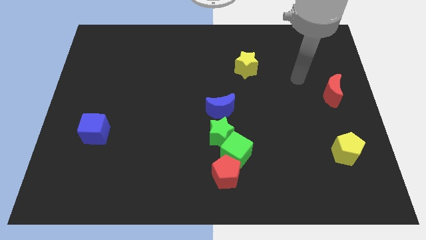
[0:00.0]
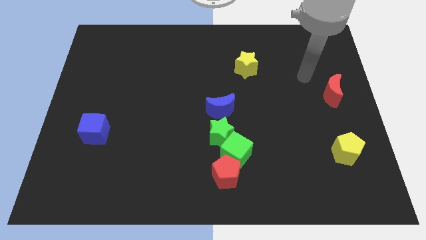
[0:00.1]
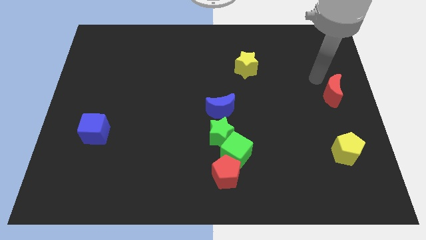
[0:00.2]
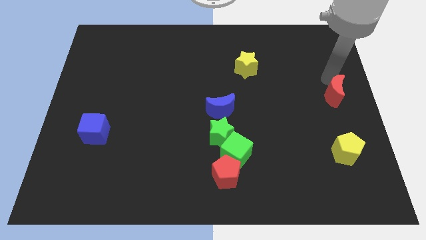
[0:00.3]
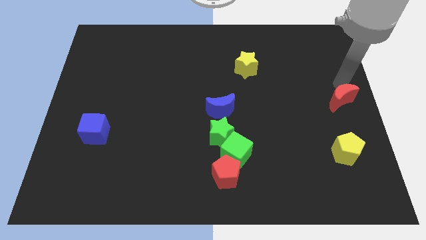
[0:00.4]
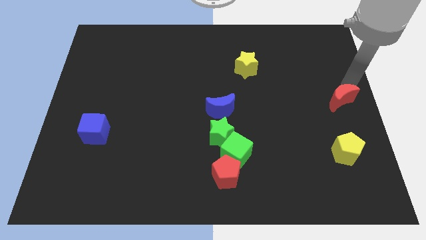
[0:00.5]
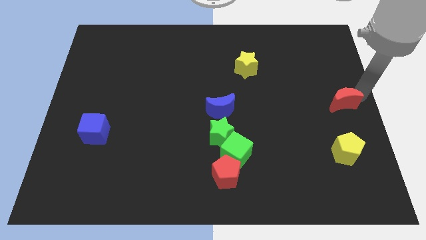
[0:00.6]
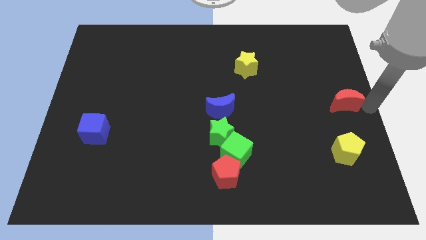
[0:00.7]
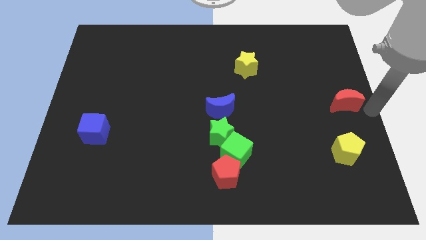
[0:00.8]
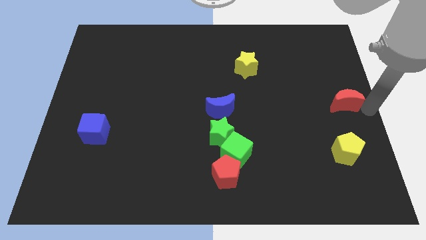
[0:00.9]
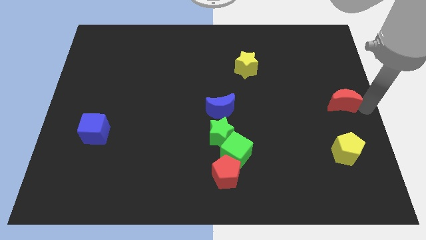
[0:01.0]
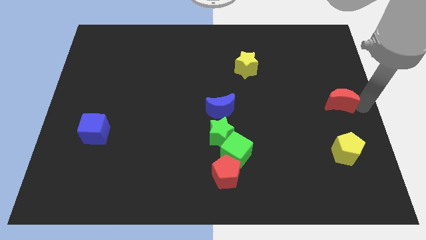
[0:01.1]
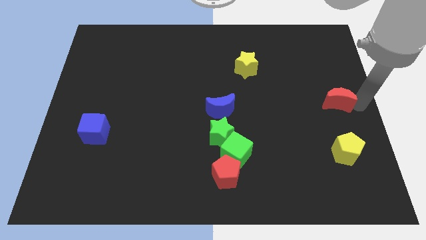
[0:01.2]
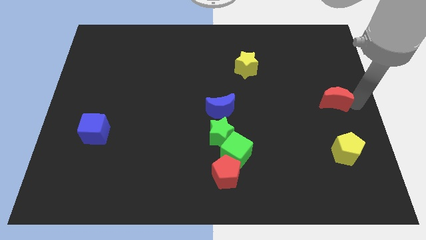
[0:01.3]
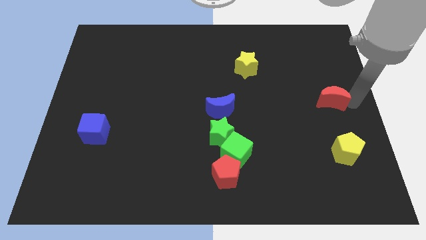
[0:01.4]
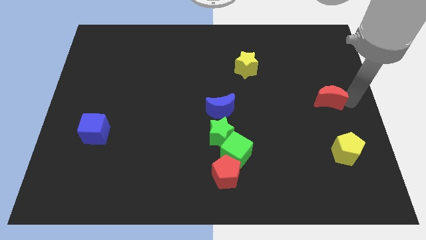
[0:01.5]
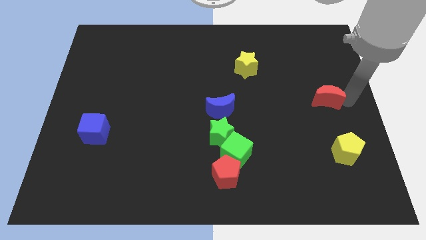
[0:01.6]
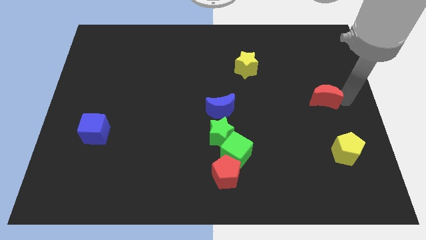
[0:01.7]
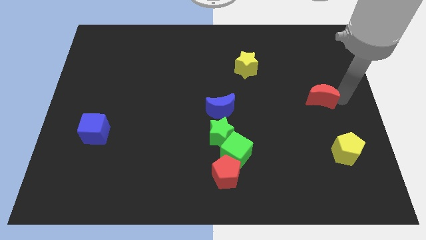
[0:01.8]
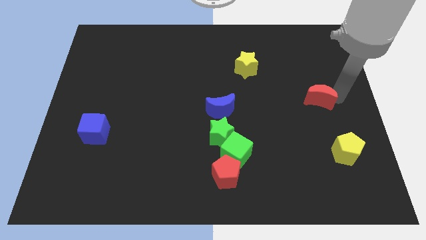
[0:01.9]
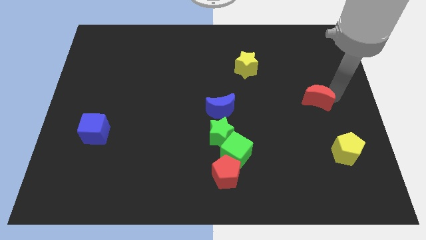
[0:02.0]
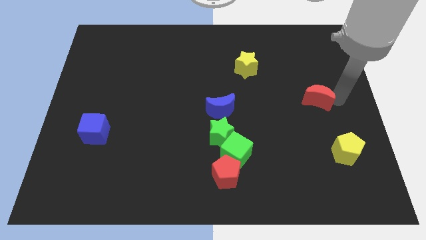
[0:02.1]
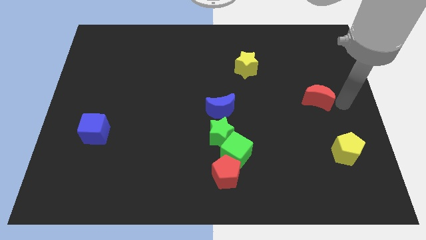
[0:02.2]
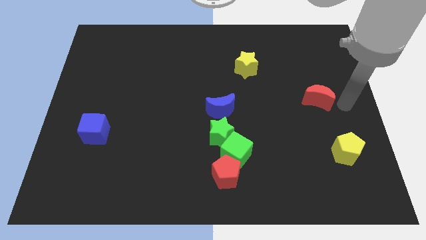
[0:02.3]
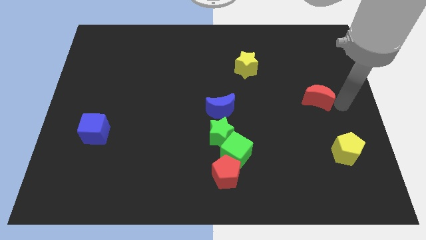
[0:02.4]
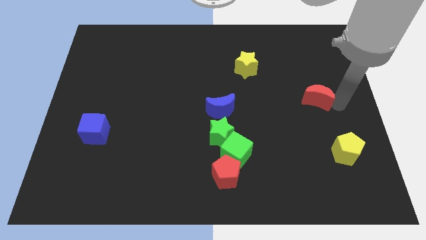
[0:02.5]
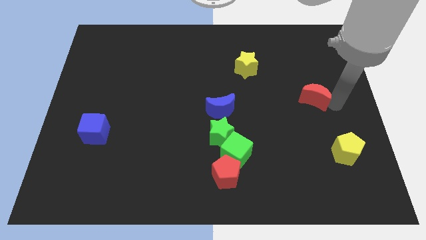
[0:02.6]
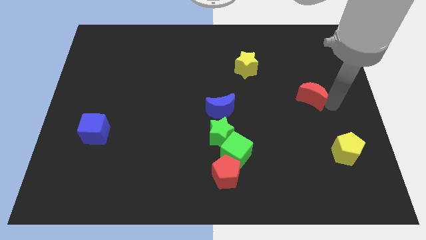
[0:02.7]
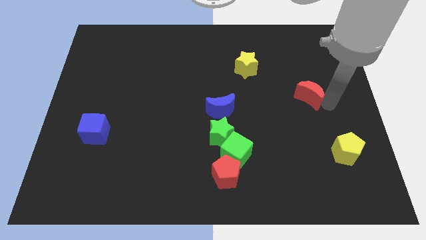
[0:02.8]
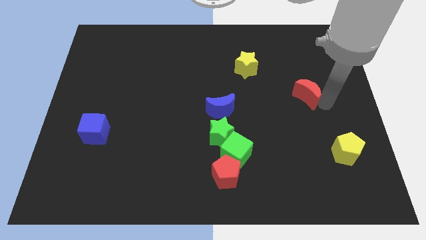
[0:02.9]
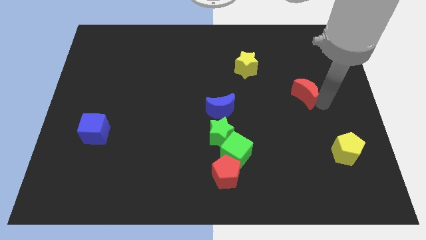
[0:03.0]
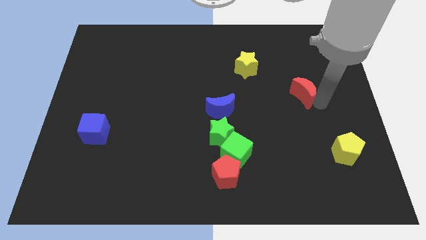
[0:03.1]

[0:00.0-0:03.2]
slightly slide the red moon left

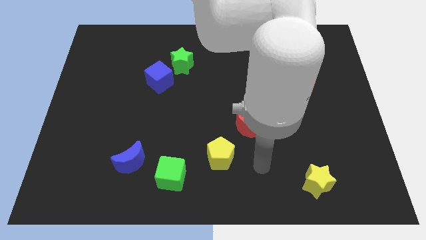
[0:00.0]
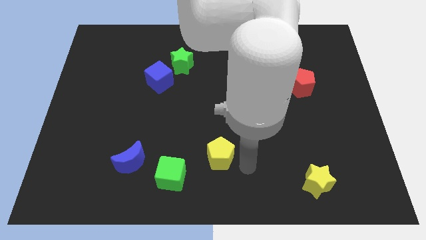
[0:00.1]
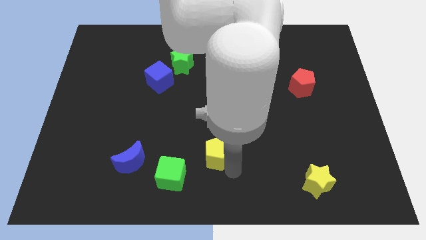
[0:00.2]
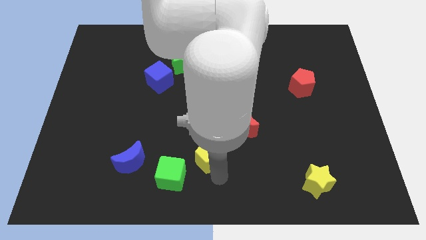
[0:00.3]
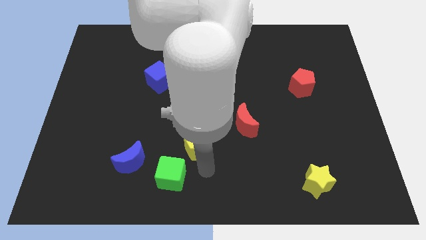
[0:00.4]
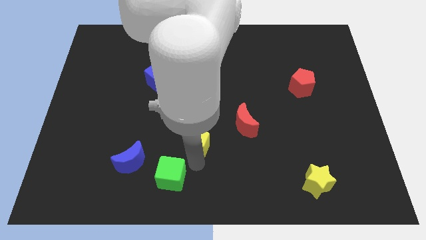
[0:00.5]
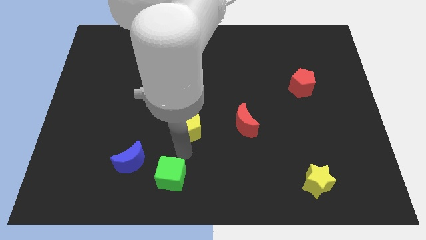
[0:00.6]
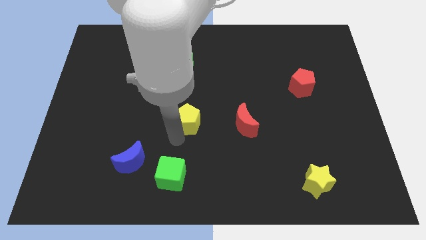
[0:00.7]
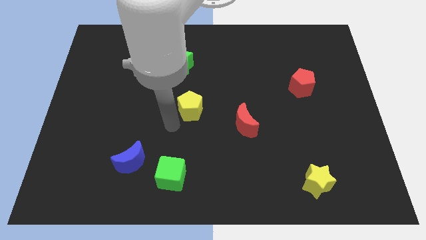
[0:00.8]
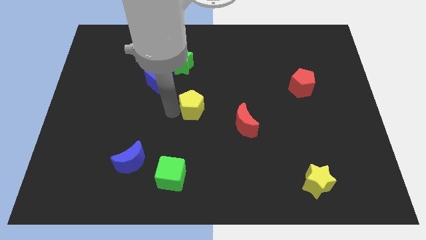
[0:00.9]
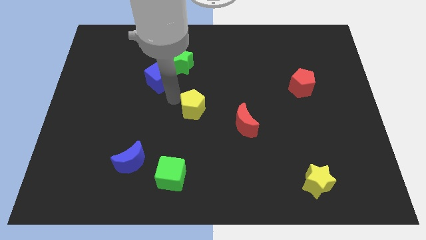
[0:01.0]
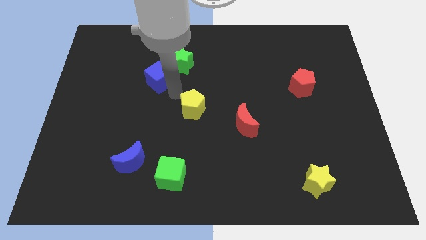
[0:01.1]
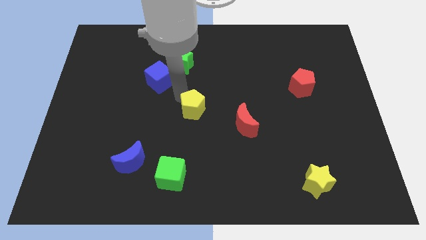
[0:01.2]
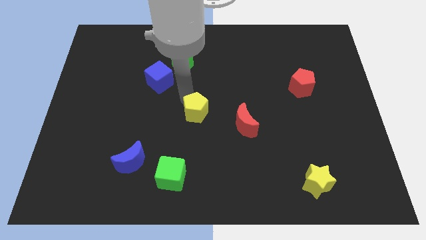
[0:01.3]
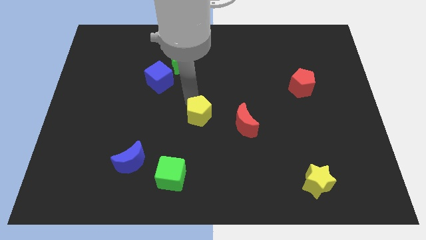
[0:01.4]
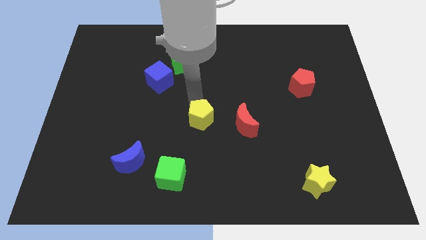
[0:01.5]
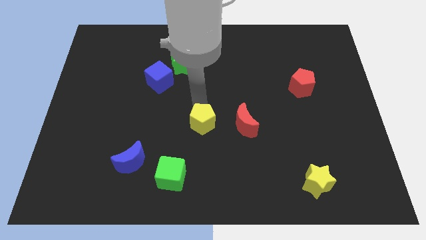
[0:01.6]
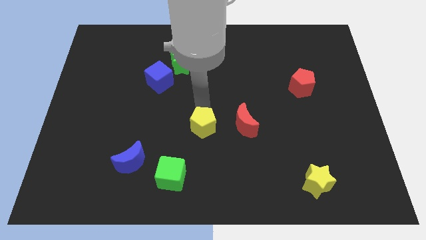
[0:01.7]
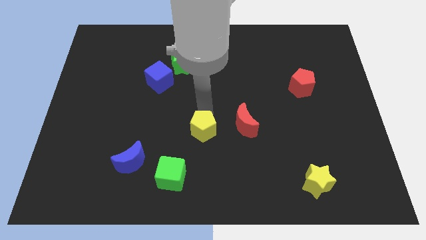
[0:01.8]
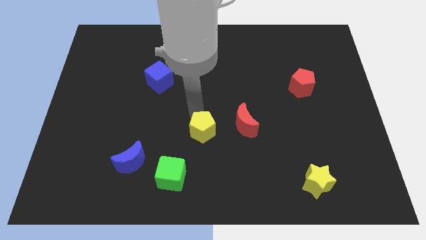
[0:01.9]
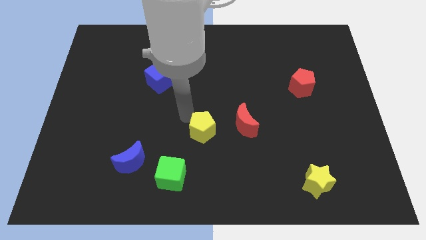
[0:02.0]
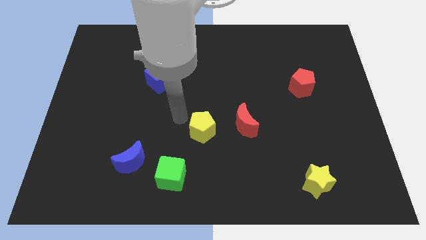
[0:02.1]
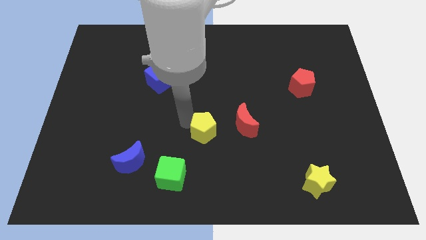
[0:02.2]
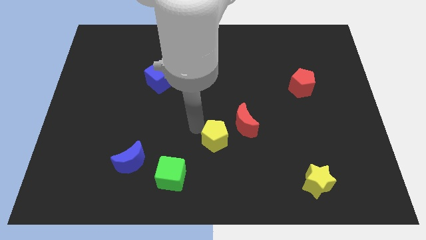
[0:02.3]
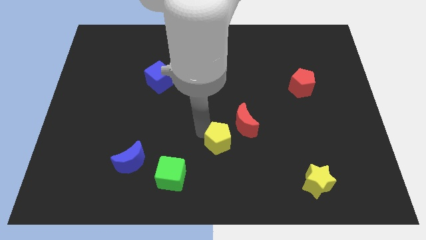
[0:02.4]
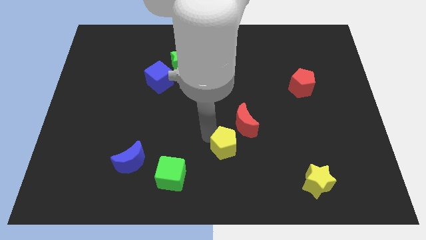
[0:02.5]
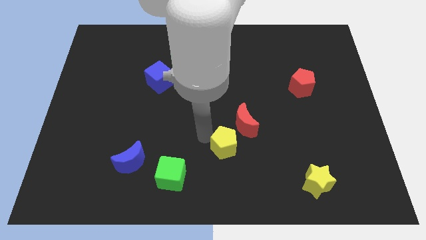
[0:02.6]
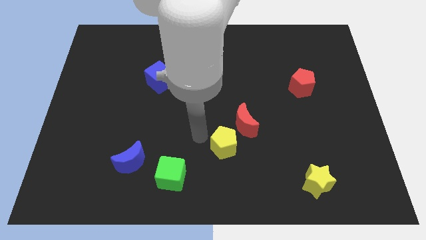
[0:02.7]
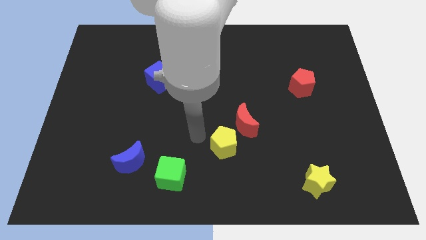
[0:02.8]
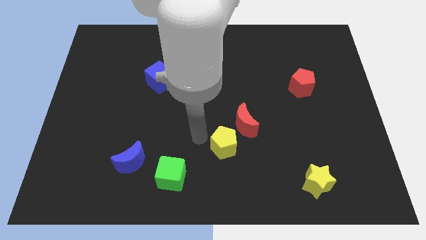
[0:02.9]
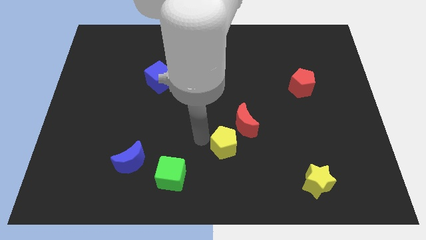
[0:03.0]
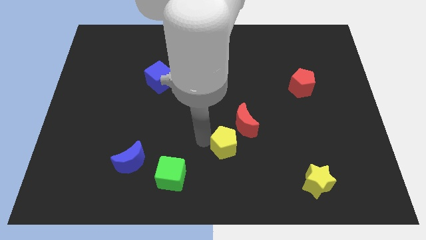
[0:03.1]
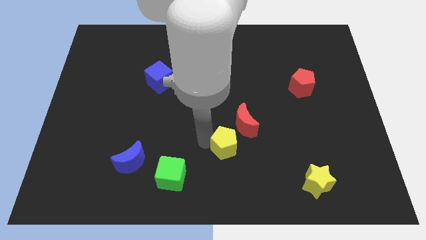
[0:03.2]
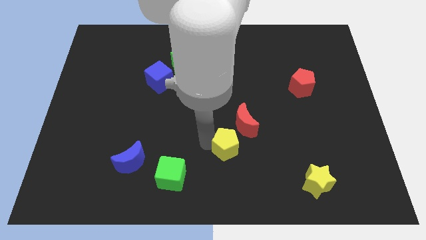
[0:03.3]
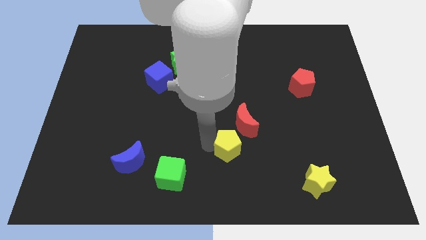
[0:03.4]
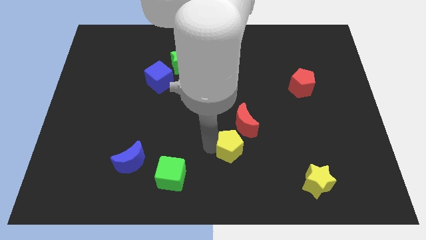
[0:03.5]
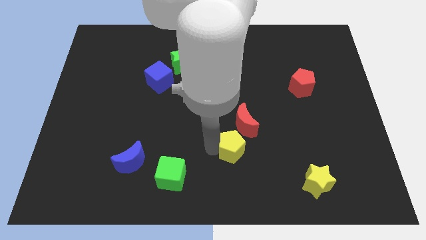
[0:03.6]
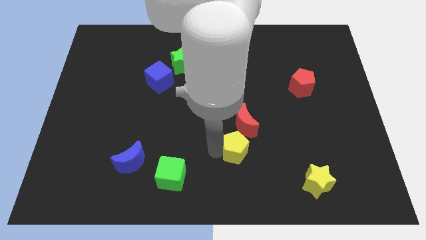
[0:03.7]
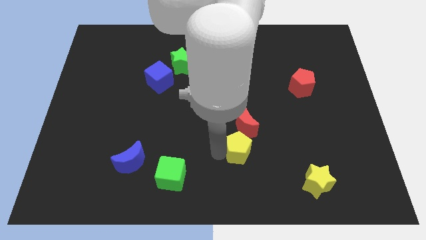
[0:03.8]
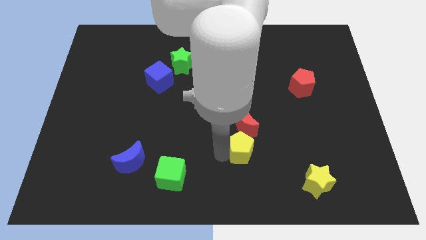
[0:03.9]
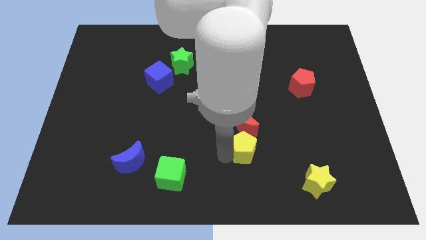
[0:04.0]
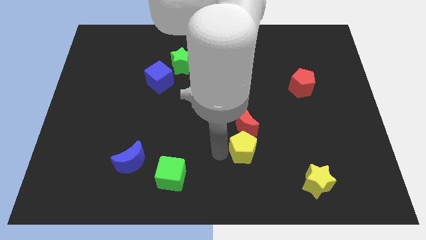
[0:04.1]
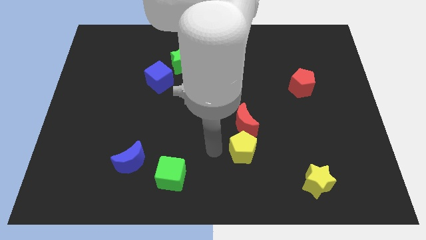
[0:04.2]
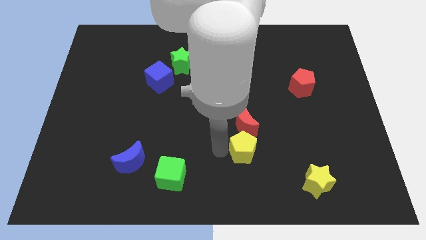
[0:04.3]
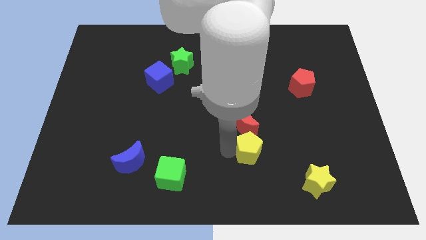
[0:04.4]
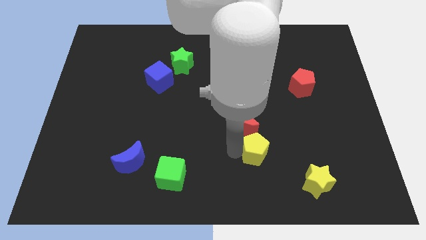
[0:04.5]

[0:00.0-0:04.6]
slightly move the yellow pentagon right
